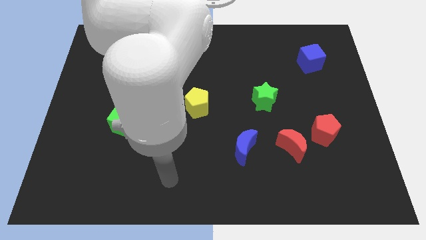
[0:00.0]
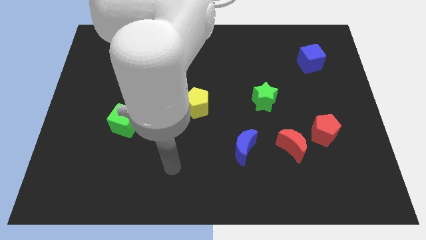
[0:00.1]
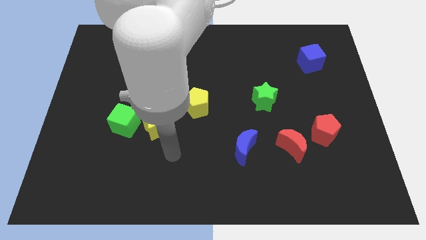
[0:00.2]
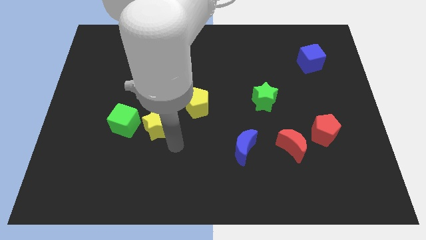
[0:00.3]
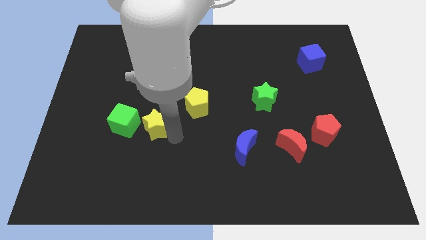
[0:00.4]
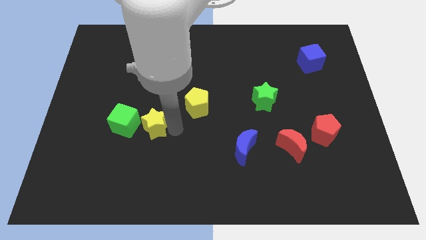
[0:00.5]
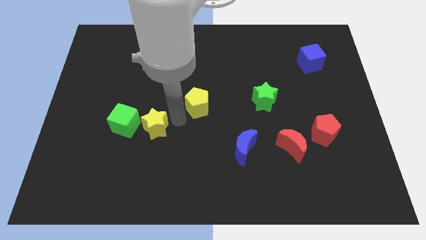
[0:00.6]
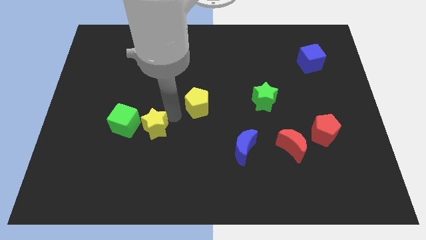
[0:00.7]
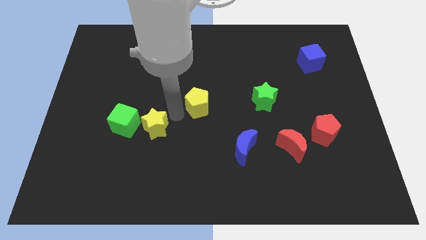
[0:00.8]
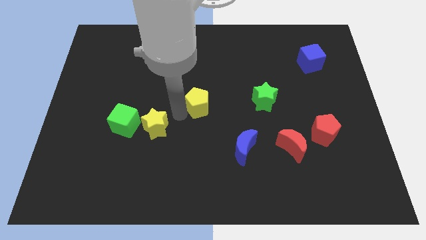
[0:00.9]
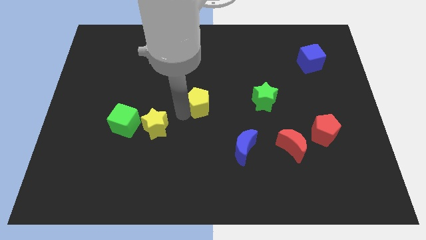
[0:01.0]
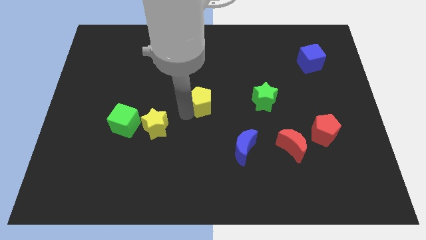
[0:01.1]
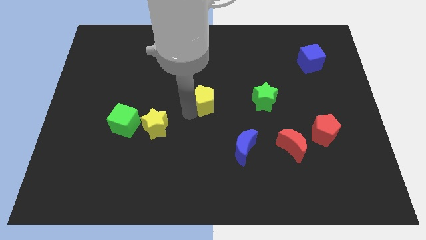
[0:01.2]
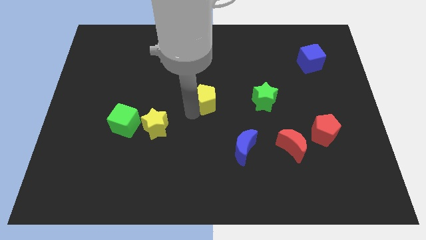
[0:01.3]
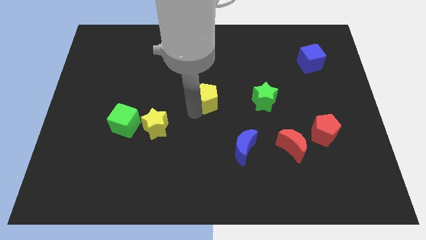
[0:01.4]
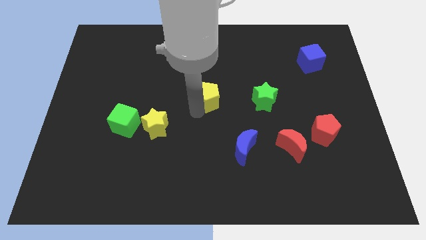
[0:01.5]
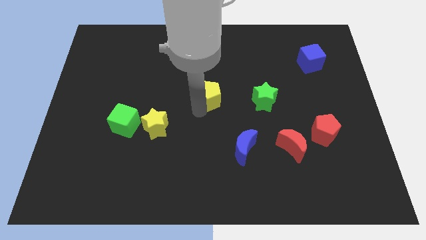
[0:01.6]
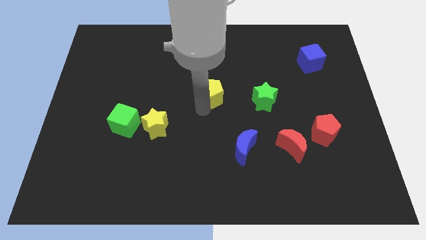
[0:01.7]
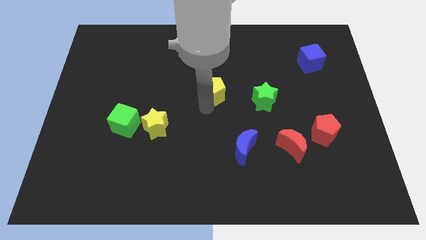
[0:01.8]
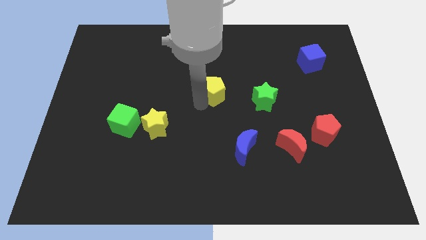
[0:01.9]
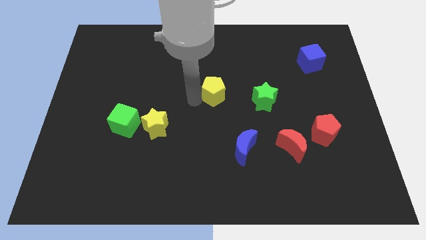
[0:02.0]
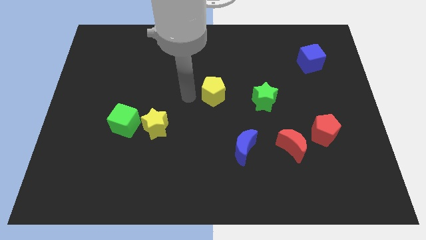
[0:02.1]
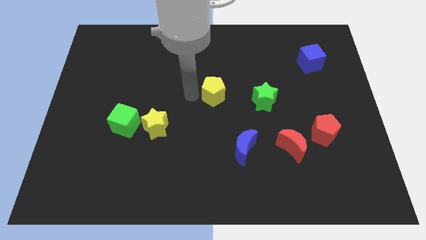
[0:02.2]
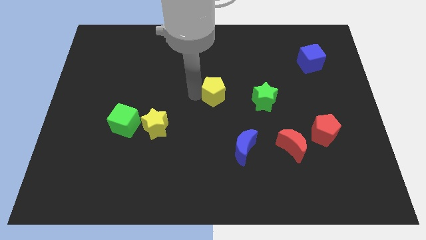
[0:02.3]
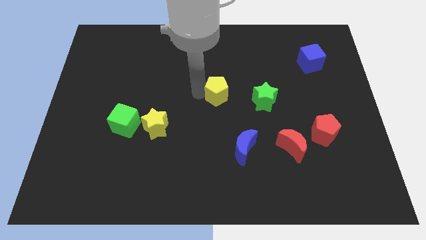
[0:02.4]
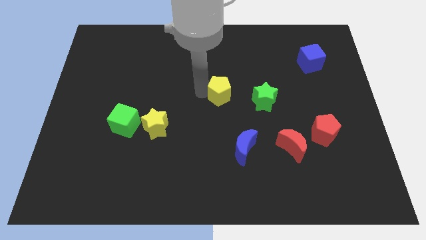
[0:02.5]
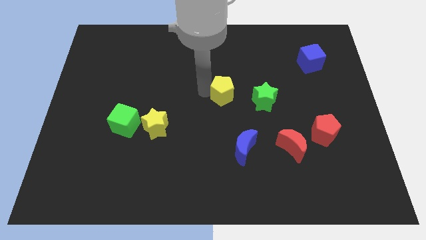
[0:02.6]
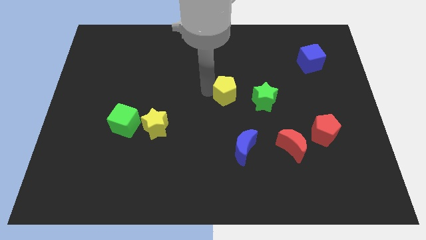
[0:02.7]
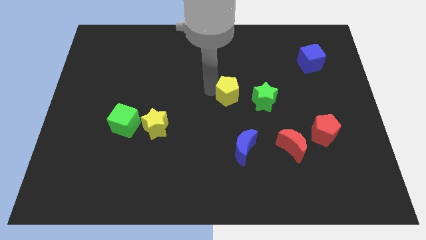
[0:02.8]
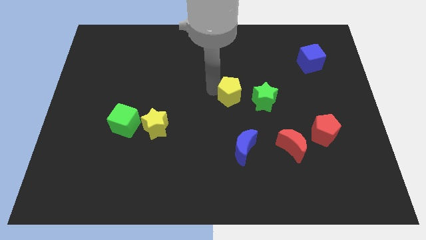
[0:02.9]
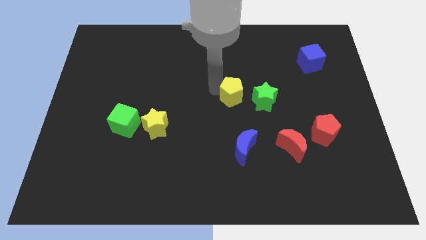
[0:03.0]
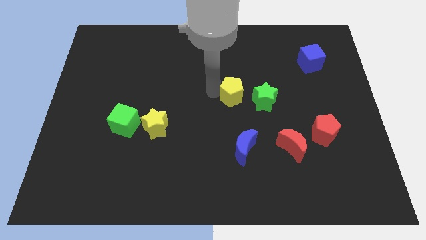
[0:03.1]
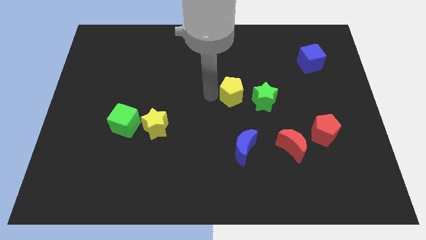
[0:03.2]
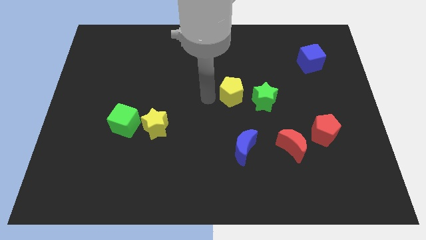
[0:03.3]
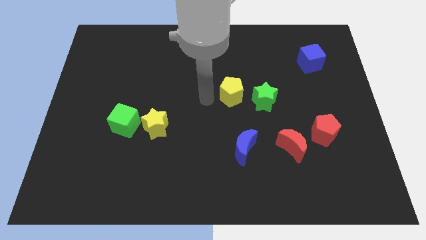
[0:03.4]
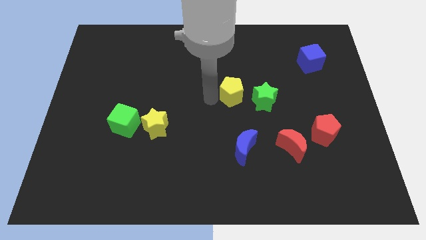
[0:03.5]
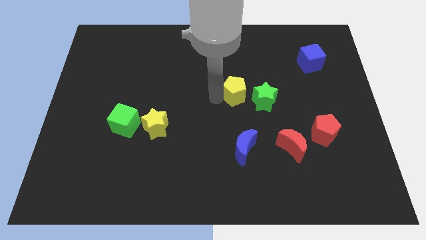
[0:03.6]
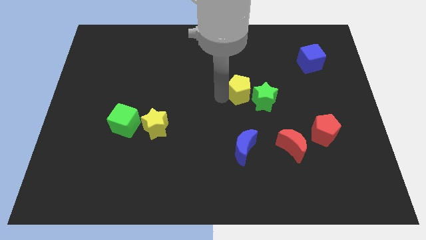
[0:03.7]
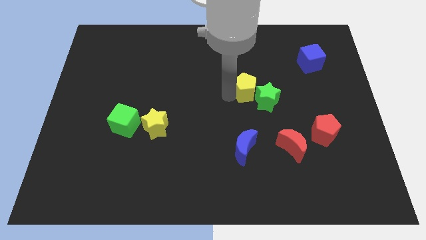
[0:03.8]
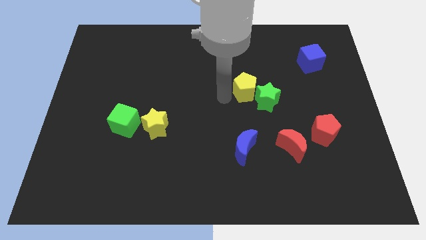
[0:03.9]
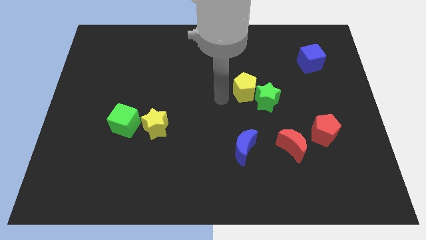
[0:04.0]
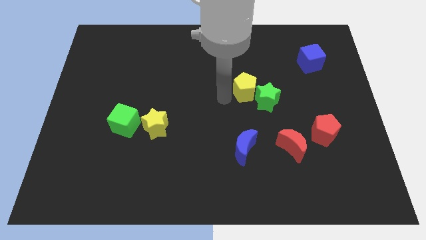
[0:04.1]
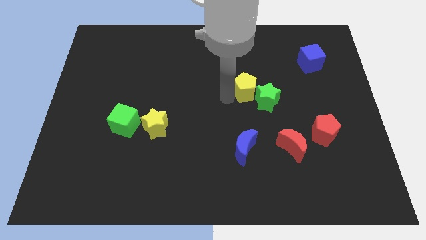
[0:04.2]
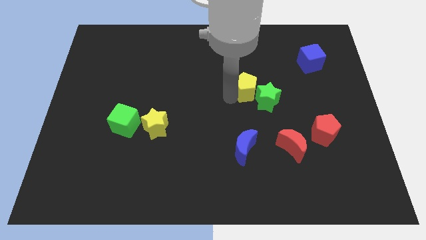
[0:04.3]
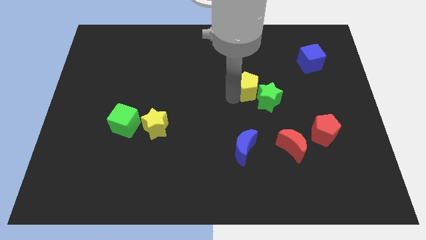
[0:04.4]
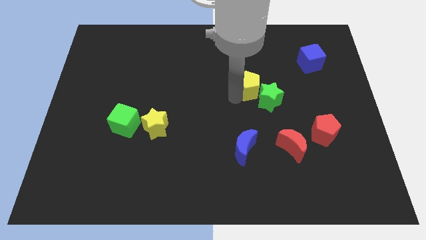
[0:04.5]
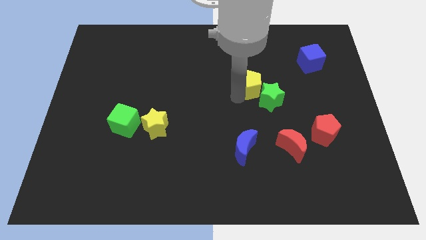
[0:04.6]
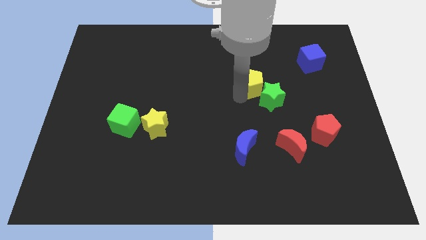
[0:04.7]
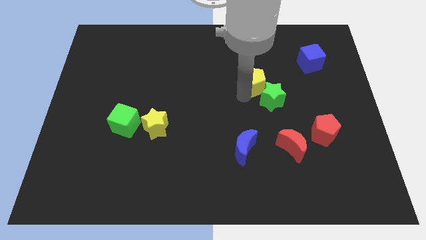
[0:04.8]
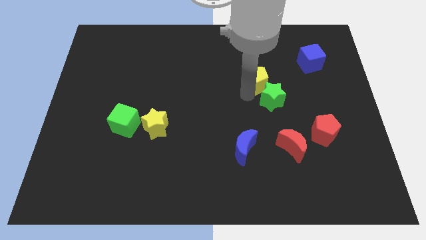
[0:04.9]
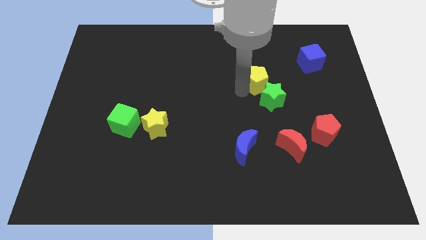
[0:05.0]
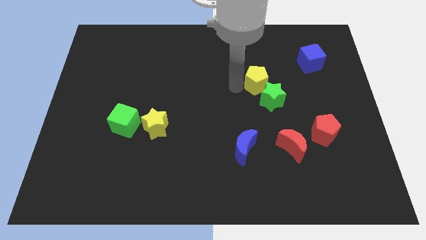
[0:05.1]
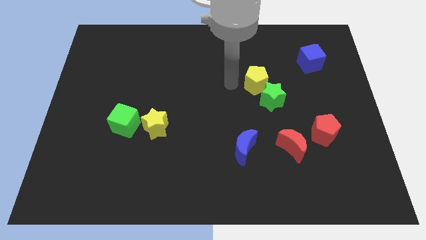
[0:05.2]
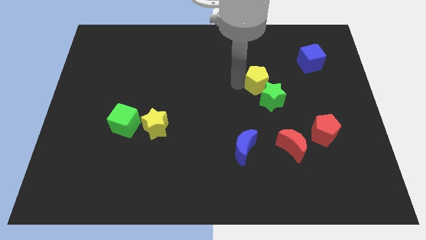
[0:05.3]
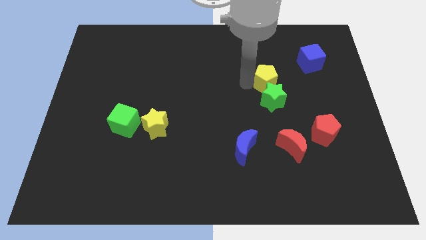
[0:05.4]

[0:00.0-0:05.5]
move the yellow pentagon to the top right side of the green star

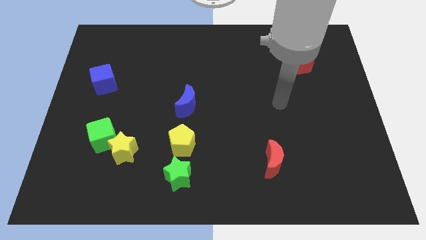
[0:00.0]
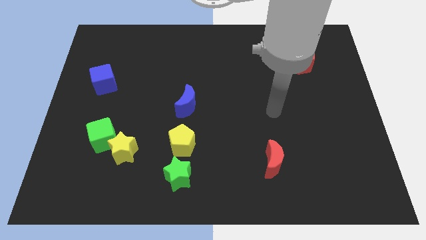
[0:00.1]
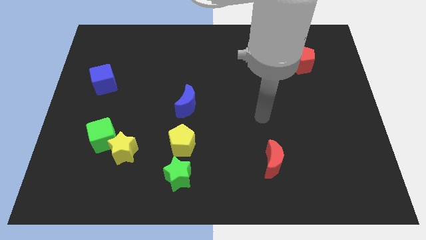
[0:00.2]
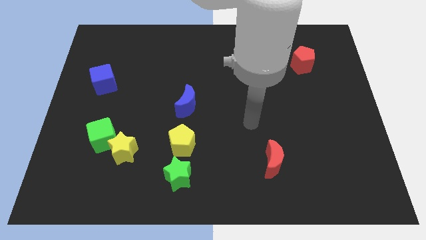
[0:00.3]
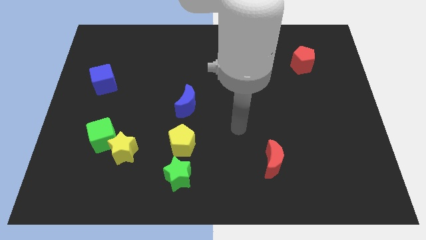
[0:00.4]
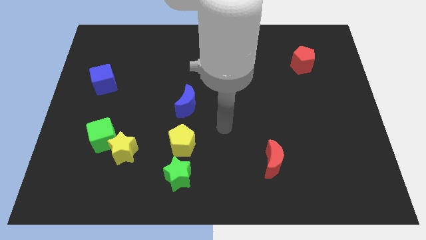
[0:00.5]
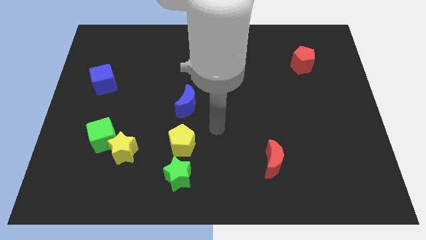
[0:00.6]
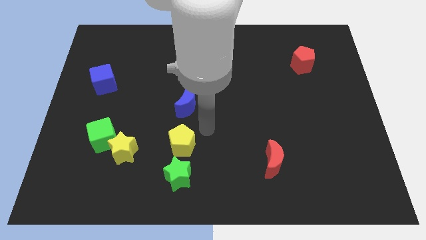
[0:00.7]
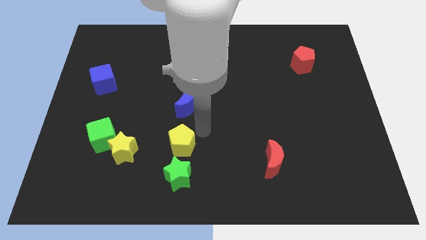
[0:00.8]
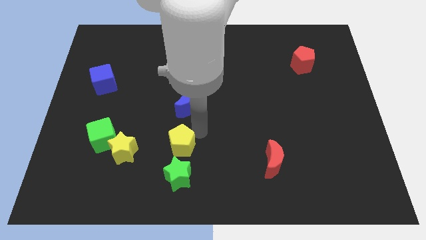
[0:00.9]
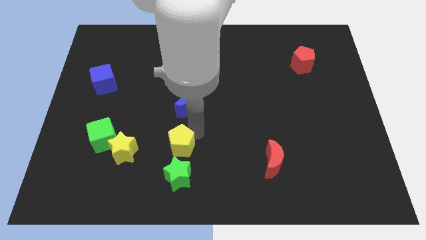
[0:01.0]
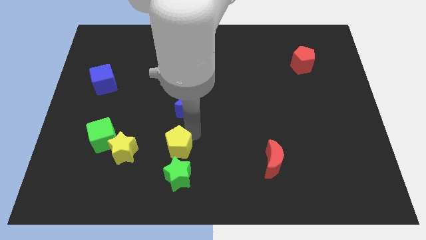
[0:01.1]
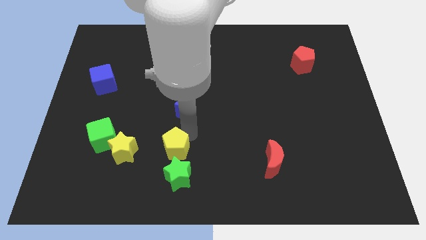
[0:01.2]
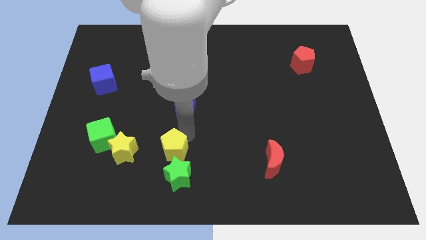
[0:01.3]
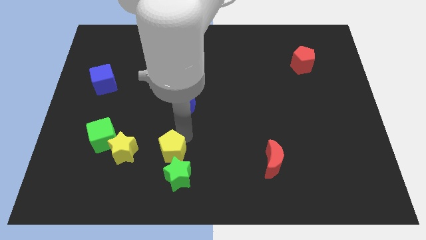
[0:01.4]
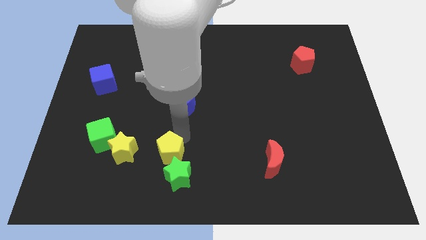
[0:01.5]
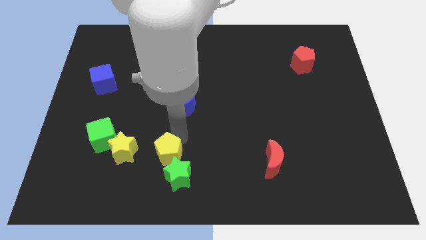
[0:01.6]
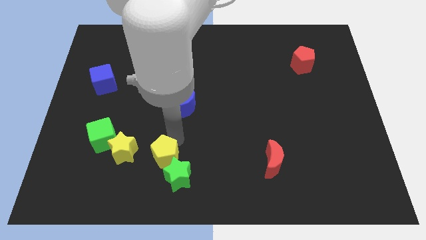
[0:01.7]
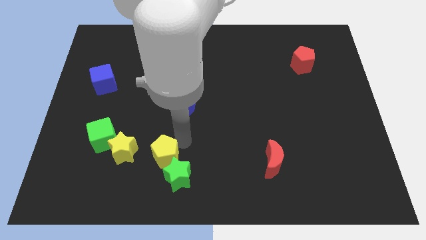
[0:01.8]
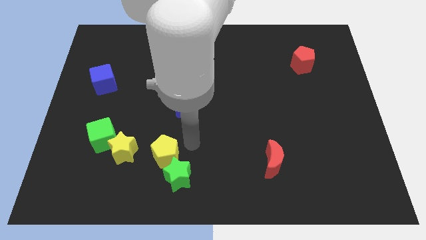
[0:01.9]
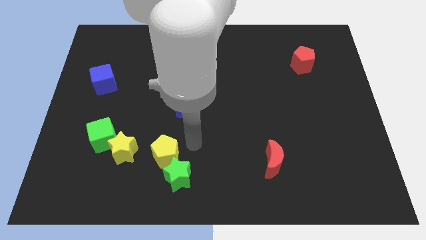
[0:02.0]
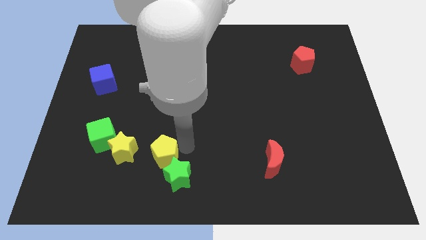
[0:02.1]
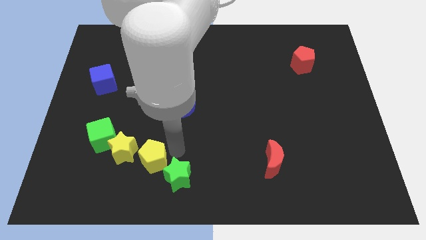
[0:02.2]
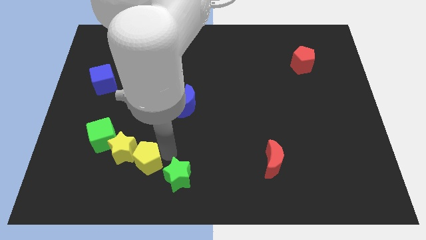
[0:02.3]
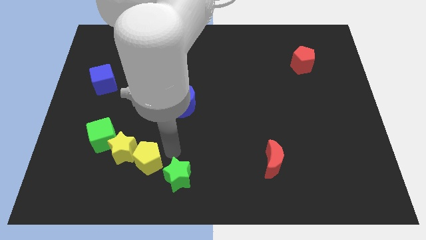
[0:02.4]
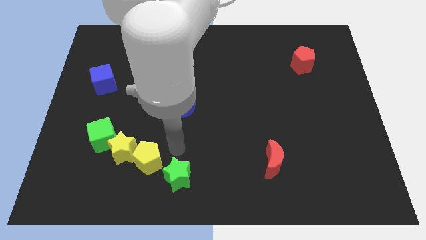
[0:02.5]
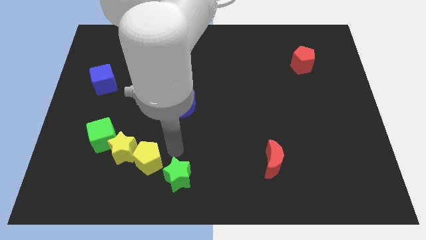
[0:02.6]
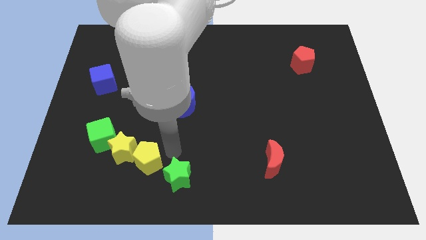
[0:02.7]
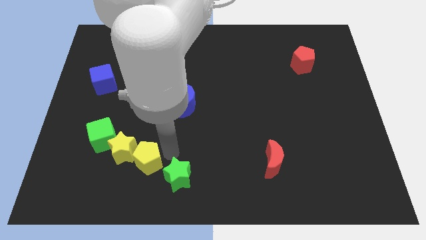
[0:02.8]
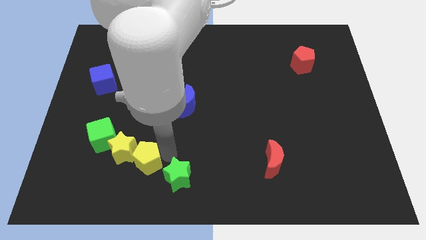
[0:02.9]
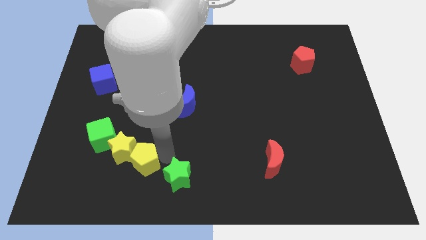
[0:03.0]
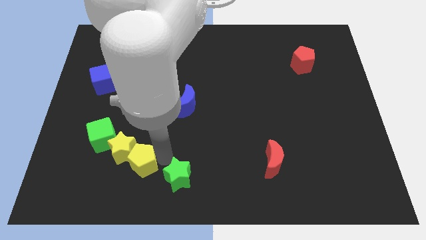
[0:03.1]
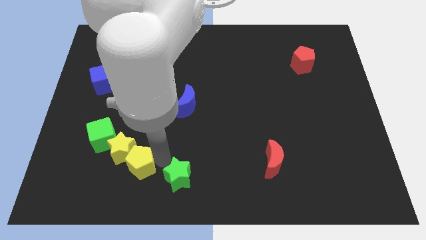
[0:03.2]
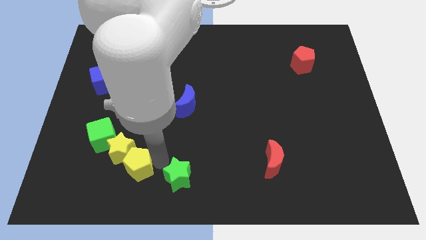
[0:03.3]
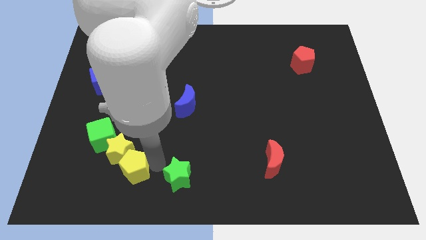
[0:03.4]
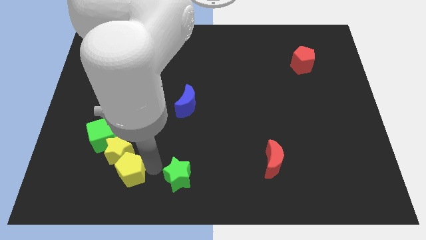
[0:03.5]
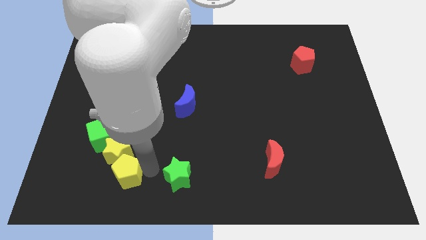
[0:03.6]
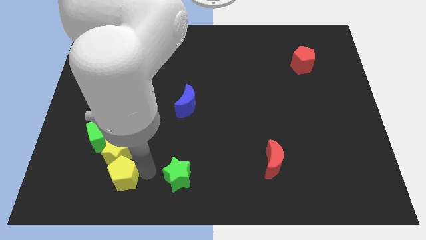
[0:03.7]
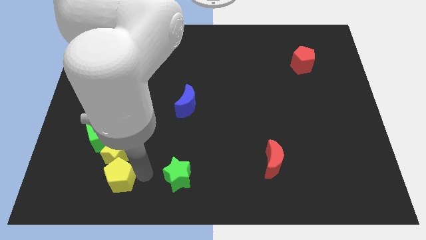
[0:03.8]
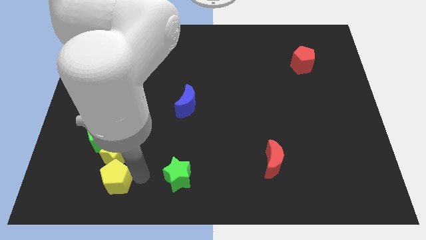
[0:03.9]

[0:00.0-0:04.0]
put the yellow pentagon to the bottom side of the green cube
